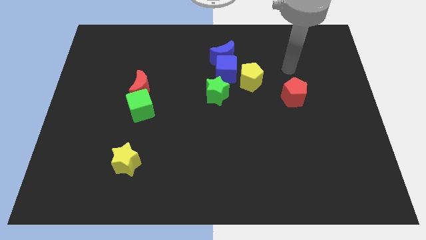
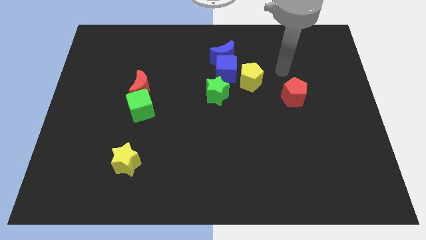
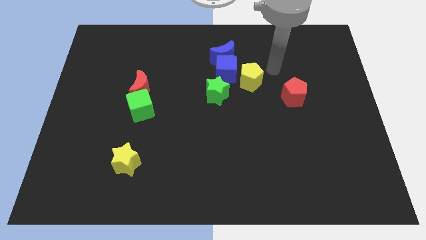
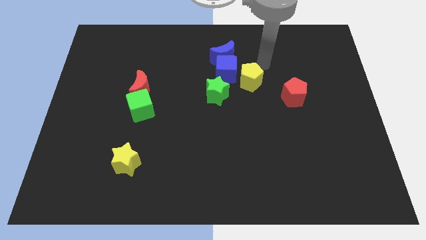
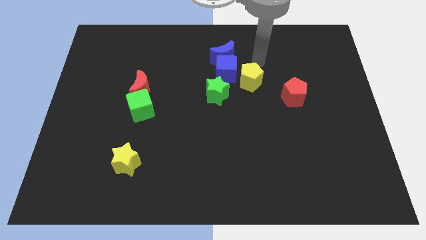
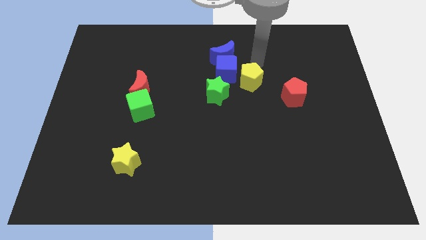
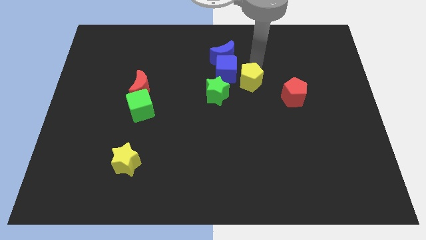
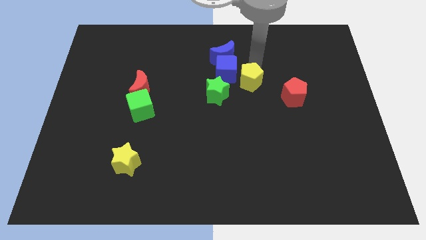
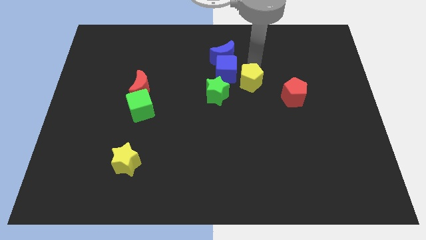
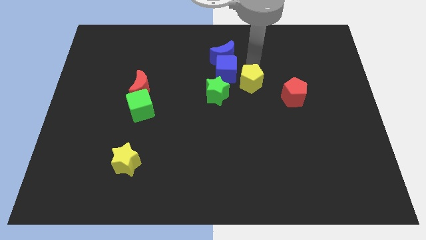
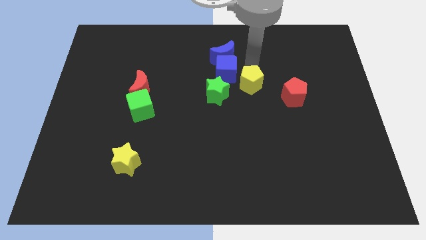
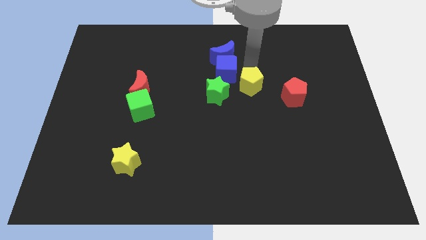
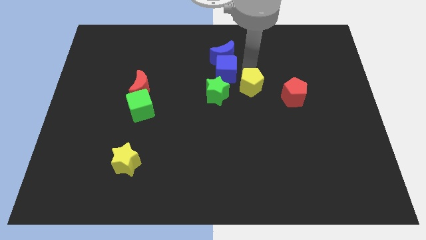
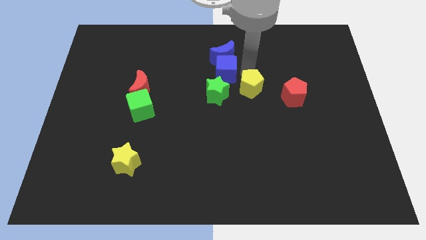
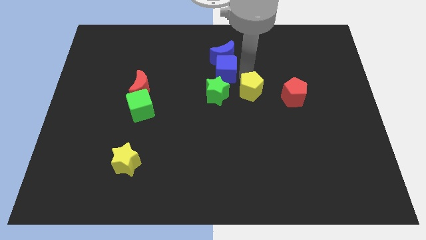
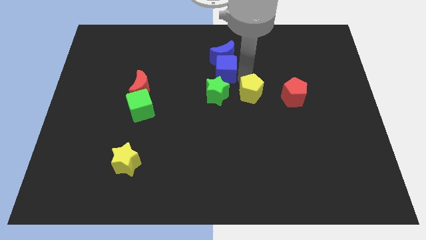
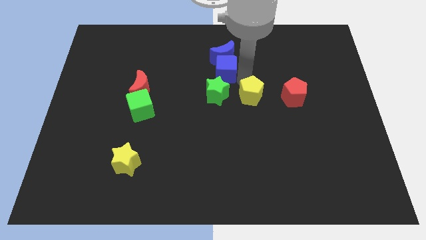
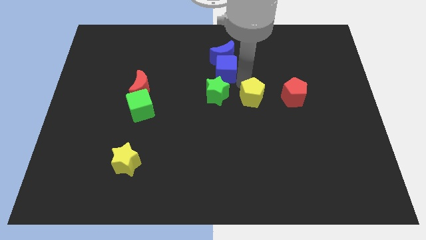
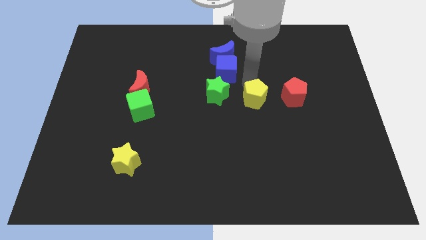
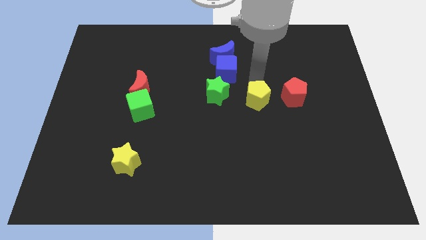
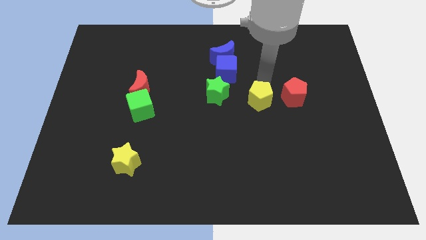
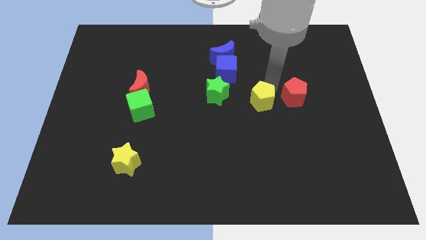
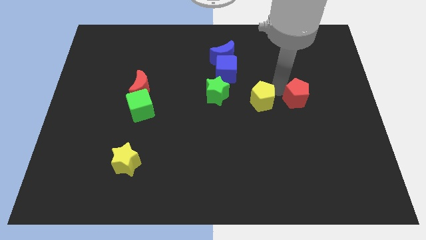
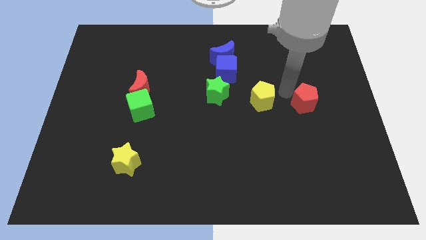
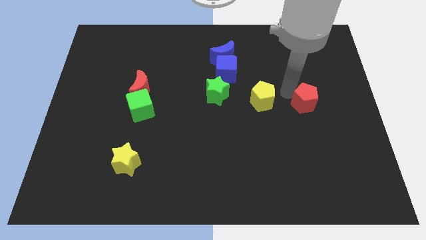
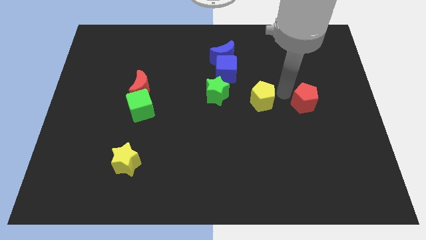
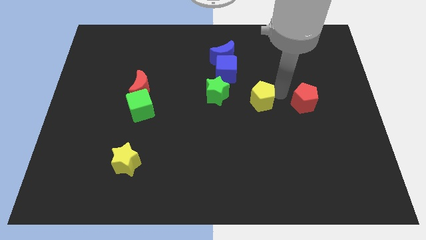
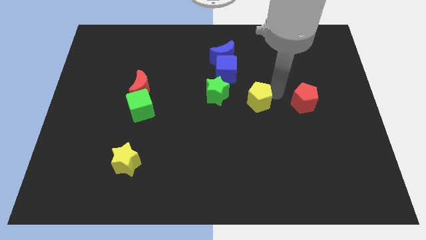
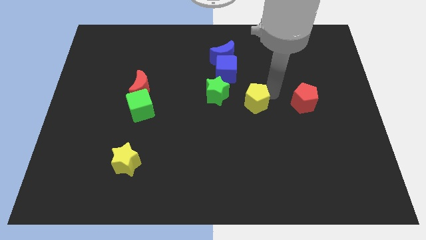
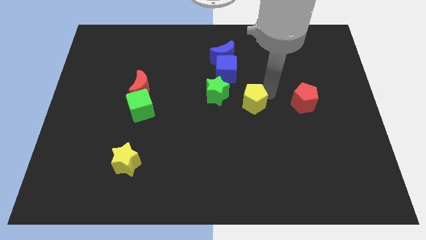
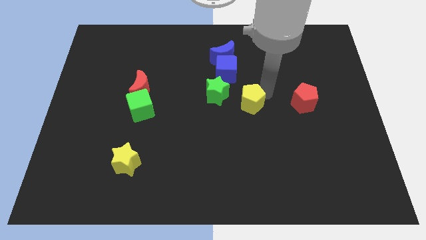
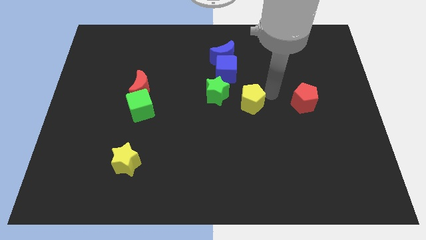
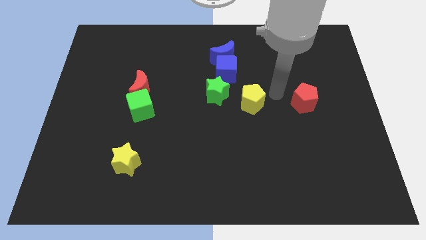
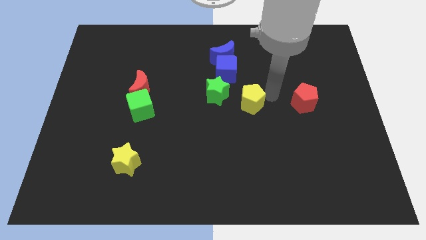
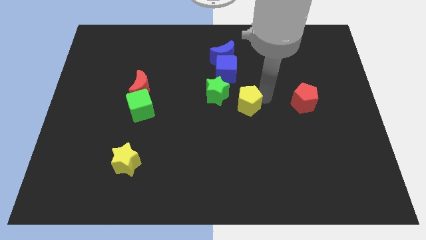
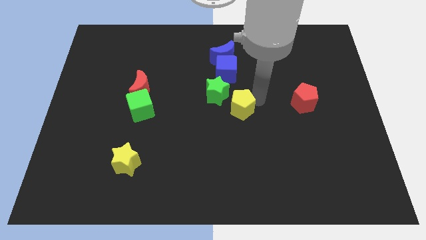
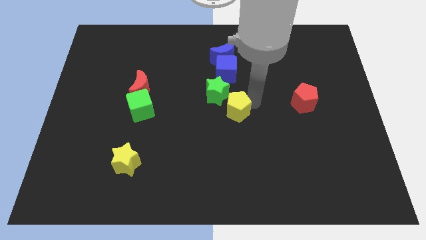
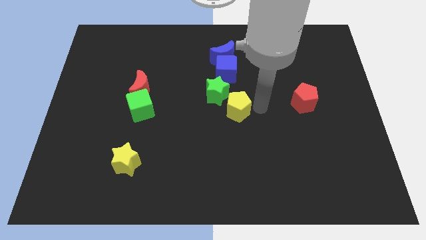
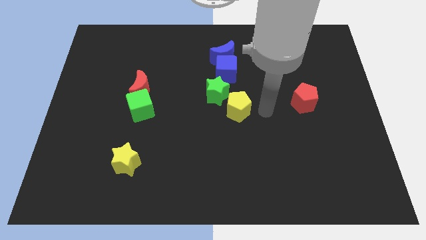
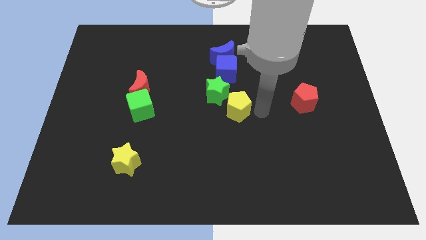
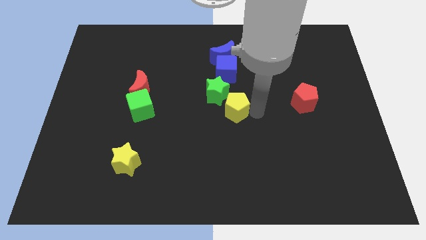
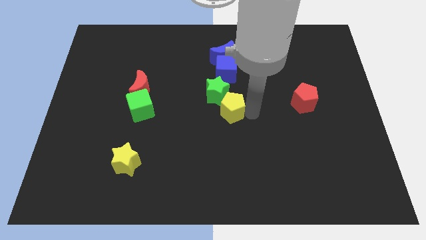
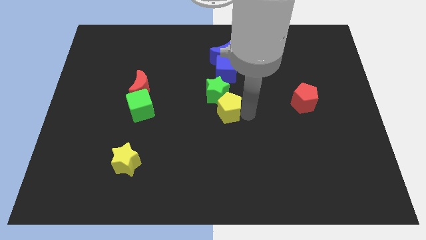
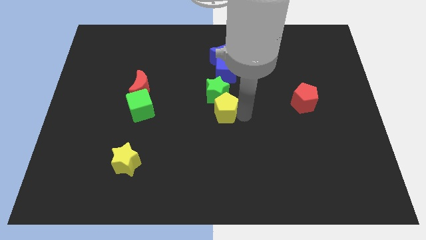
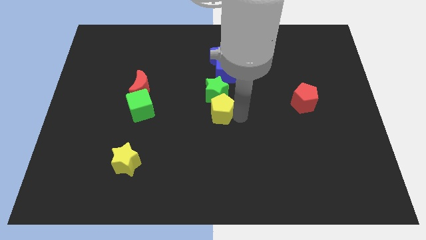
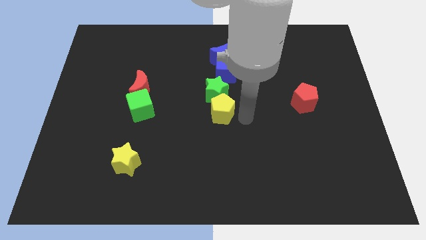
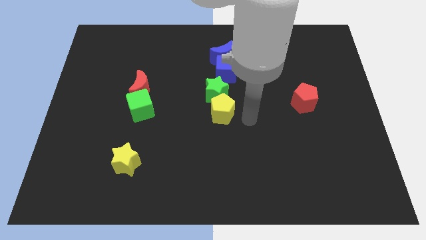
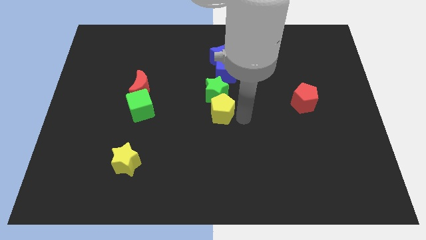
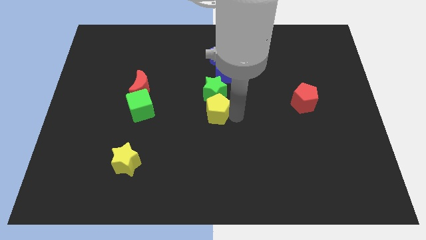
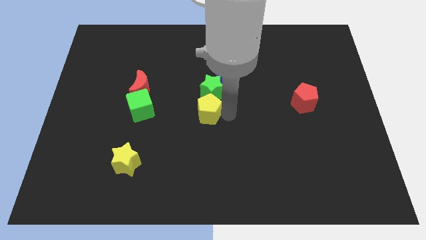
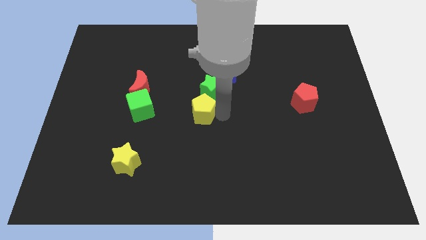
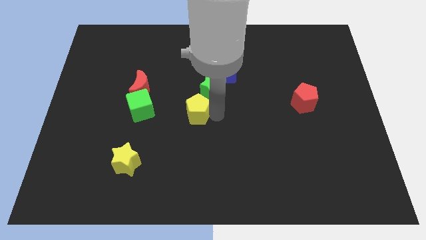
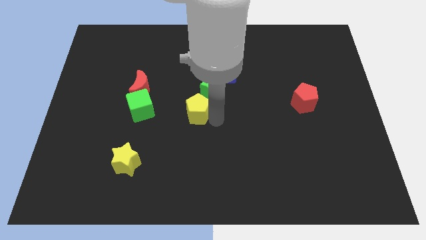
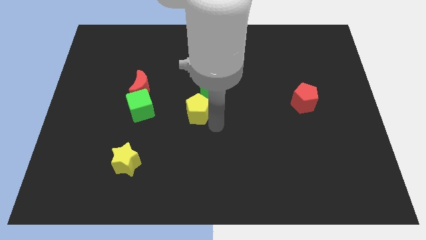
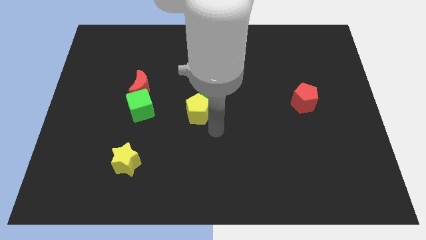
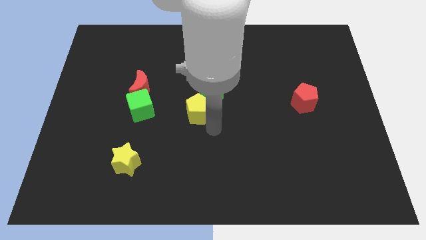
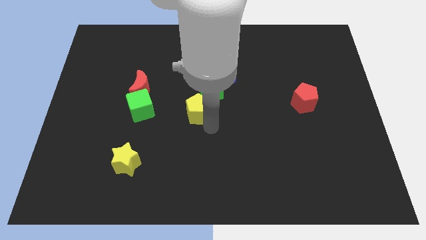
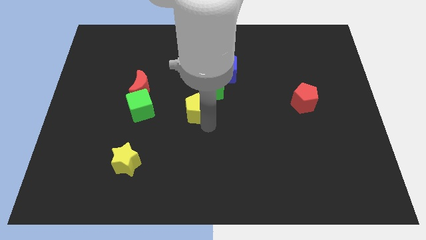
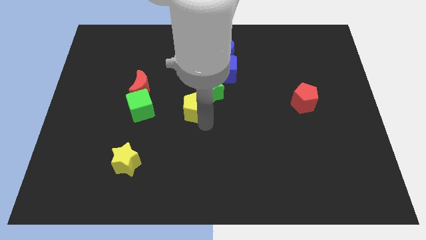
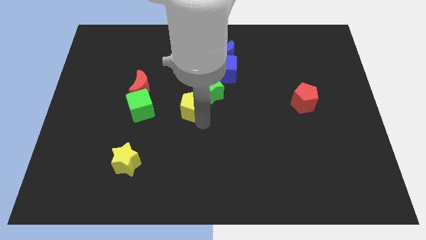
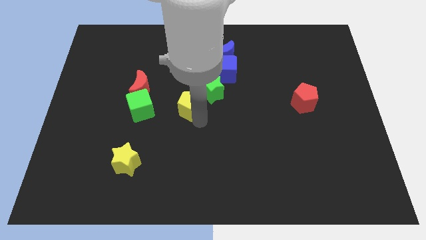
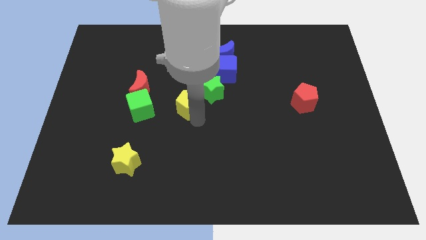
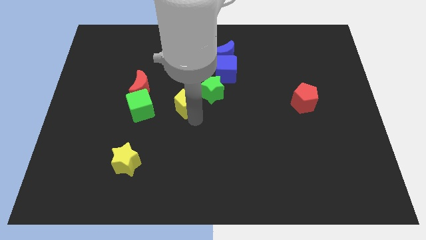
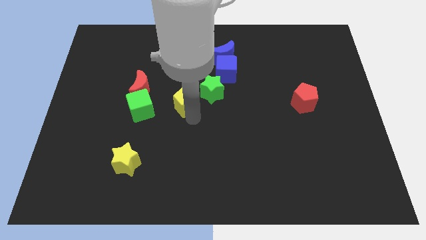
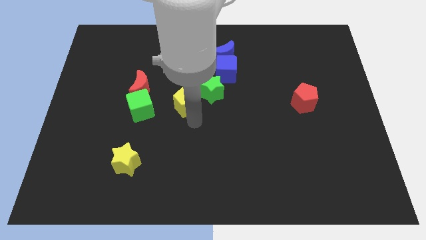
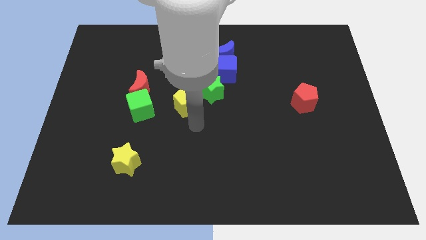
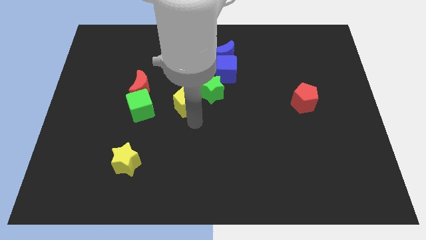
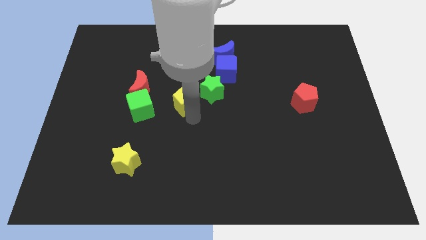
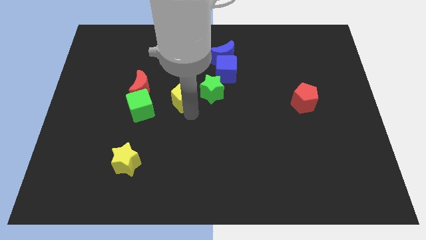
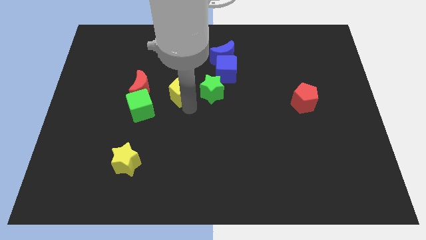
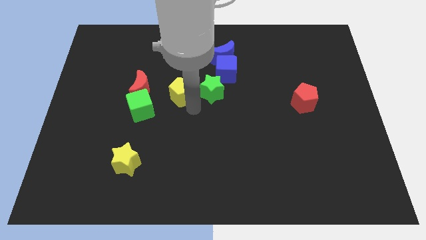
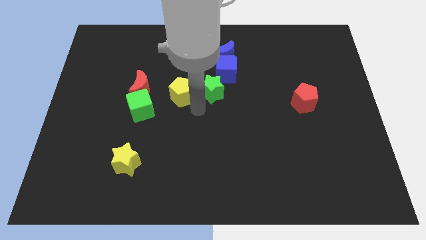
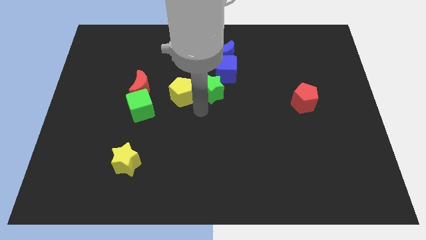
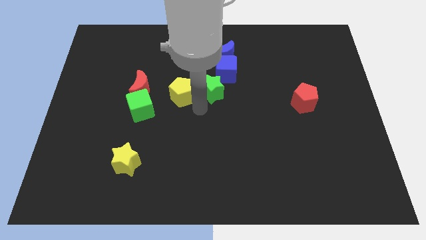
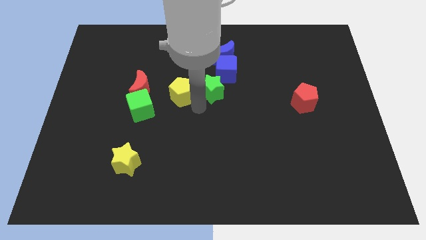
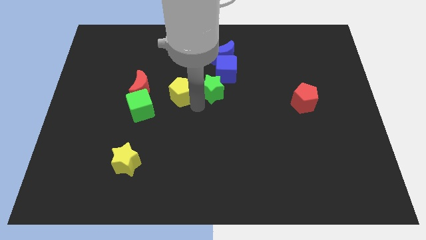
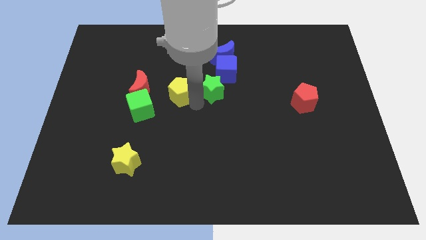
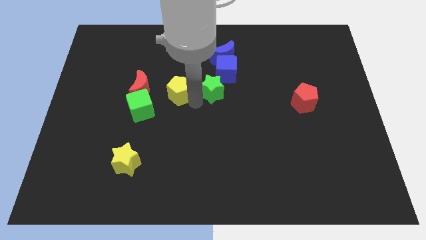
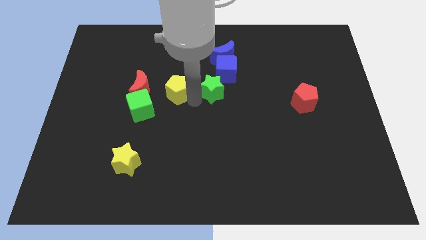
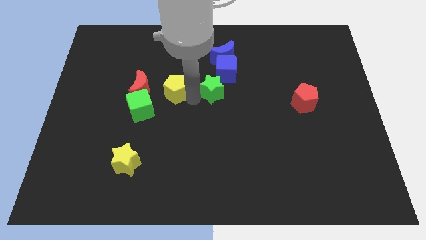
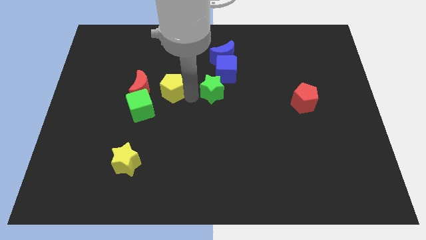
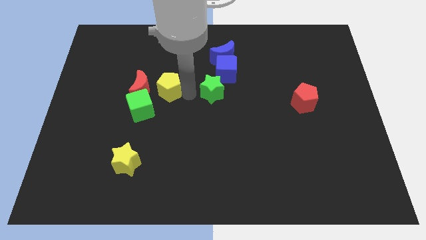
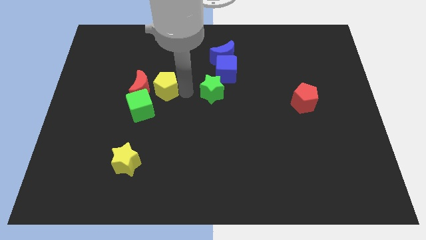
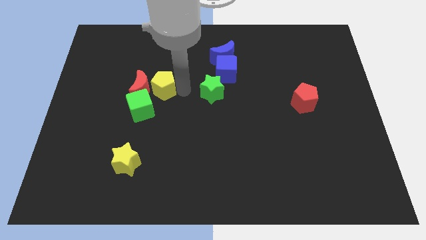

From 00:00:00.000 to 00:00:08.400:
move the yellow pentagon to the top side of the green cube
